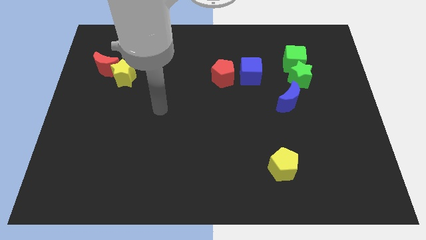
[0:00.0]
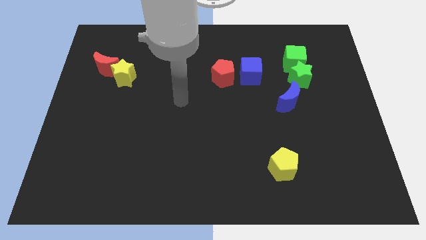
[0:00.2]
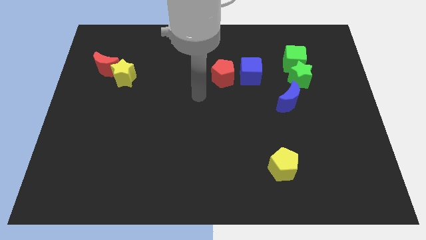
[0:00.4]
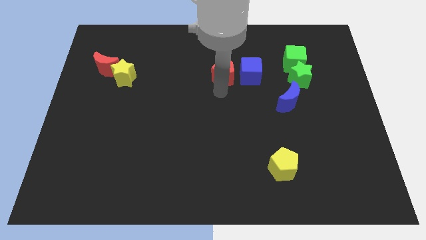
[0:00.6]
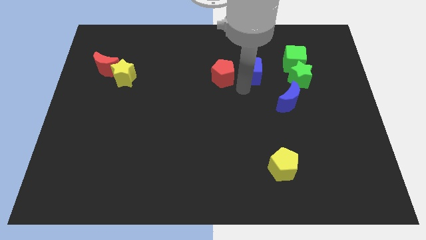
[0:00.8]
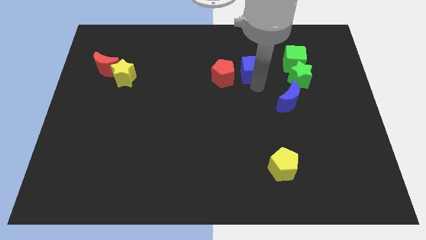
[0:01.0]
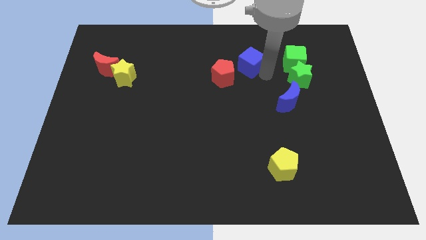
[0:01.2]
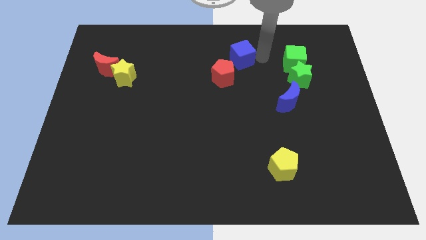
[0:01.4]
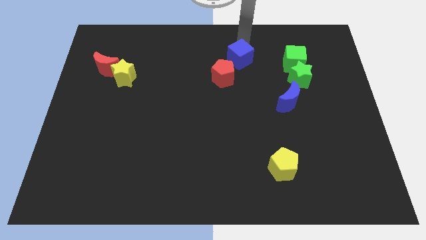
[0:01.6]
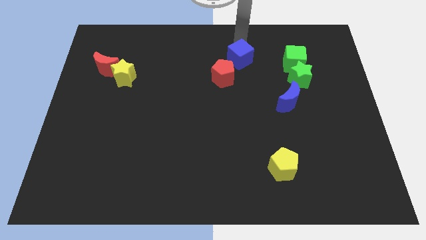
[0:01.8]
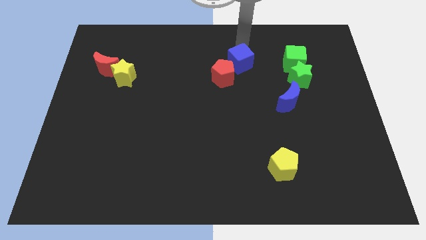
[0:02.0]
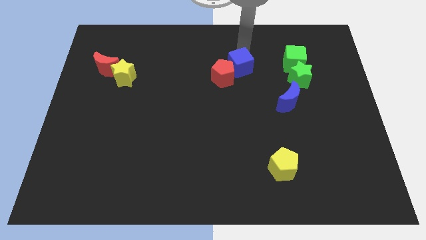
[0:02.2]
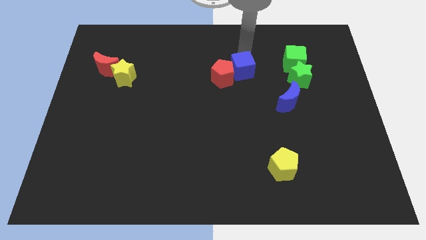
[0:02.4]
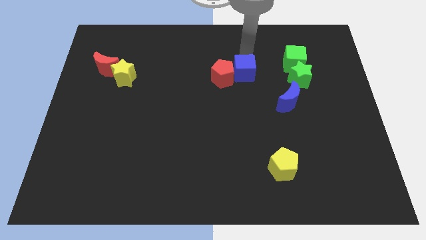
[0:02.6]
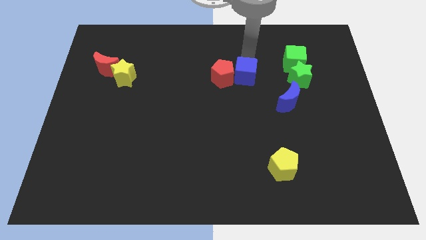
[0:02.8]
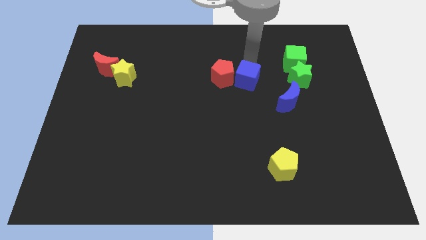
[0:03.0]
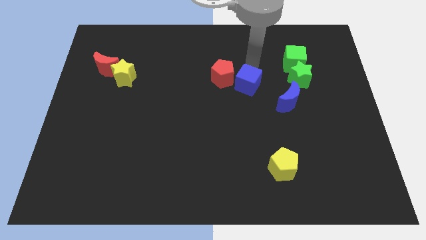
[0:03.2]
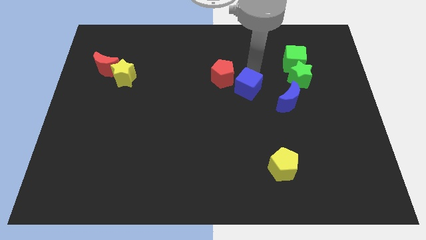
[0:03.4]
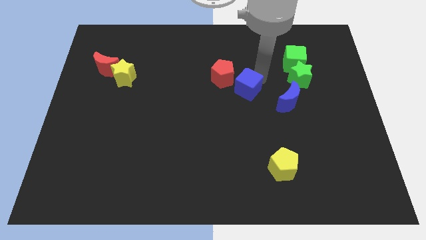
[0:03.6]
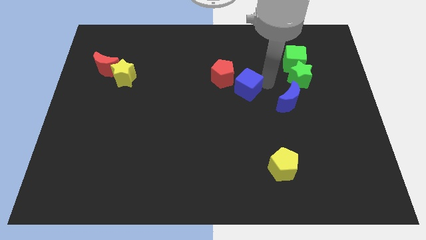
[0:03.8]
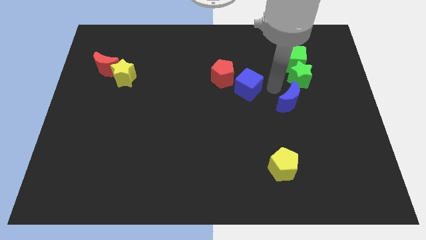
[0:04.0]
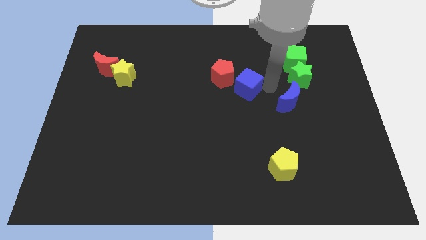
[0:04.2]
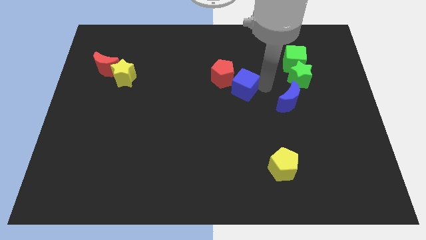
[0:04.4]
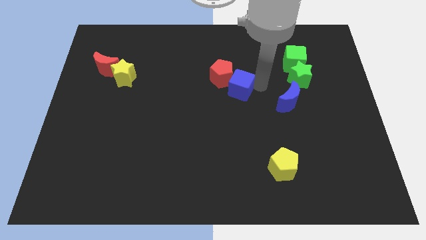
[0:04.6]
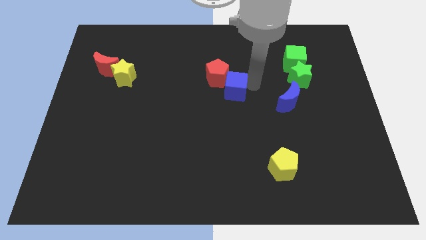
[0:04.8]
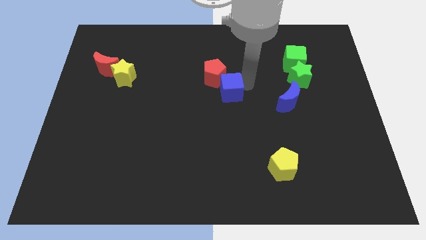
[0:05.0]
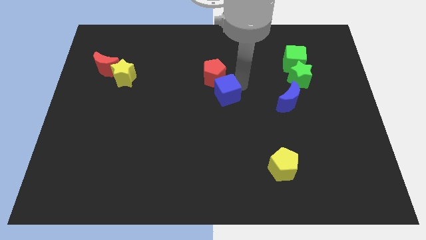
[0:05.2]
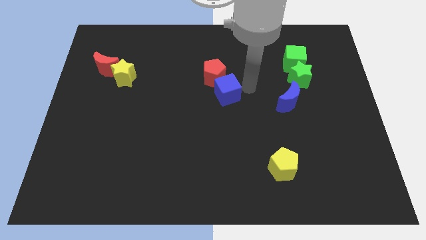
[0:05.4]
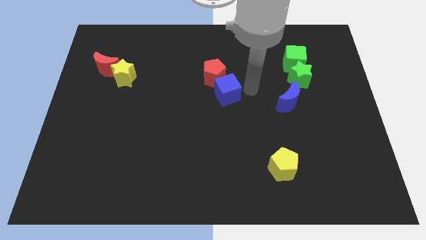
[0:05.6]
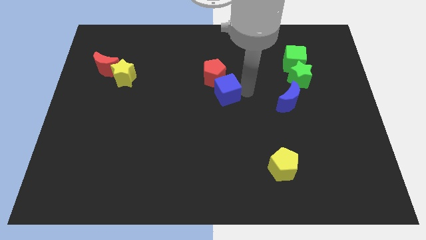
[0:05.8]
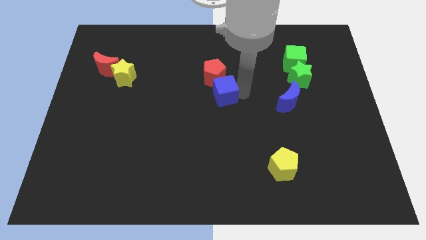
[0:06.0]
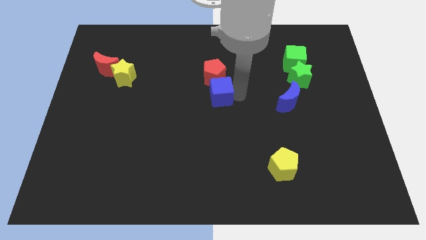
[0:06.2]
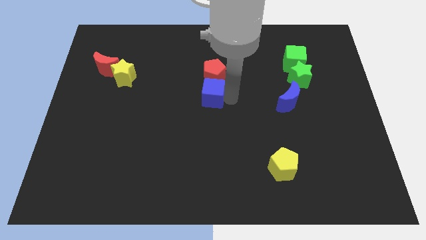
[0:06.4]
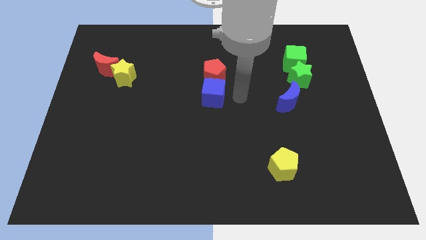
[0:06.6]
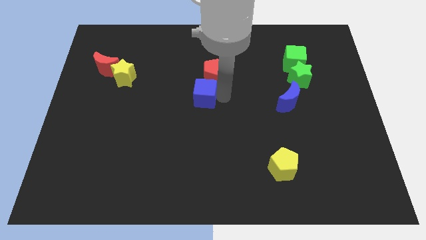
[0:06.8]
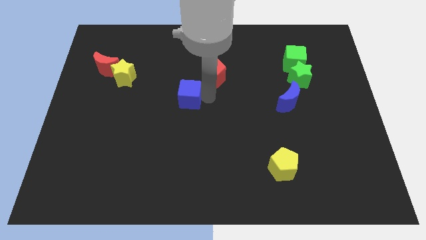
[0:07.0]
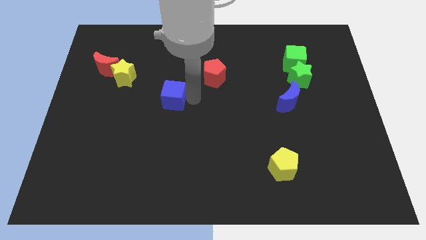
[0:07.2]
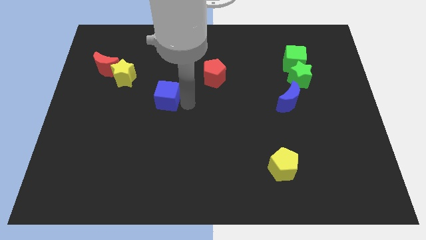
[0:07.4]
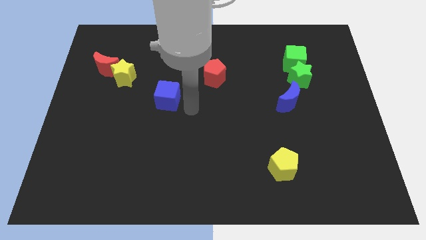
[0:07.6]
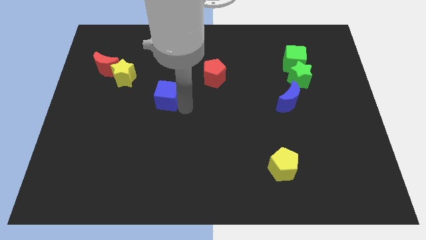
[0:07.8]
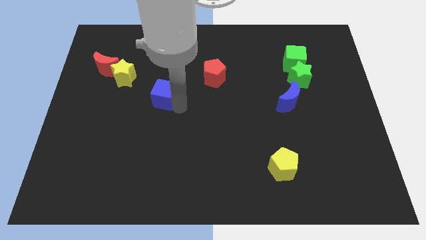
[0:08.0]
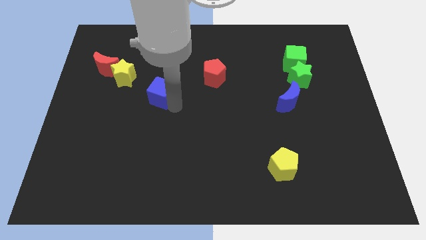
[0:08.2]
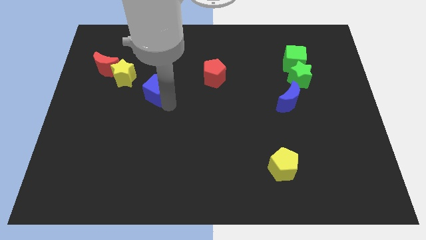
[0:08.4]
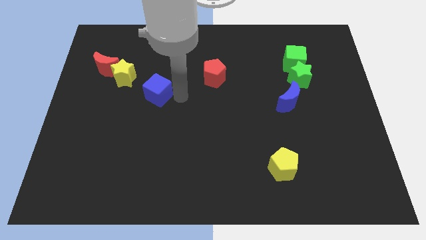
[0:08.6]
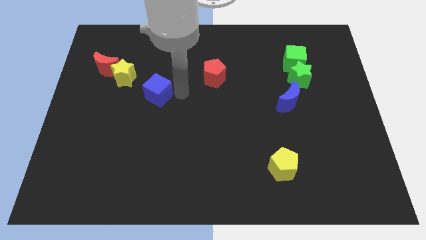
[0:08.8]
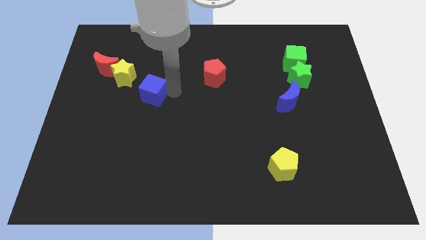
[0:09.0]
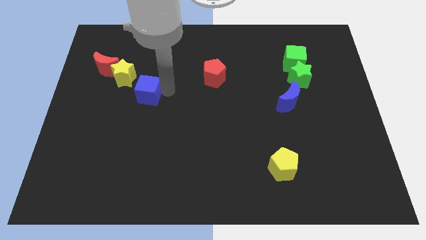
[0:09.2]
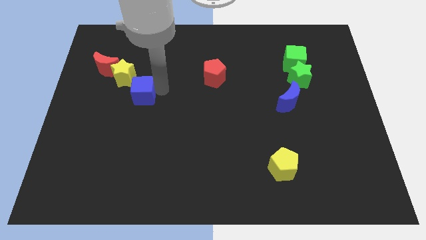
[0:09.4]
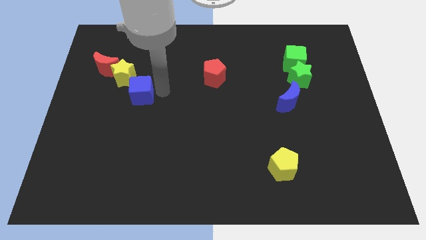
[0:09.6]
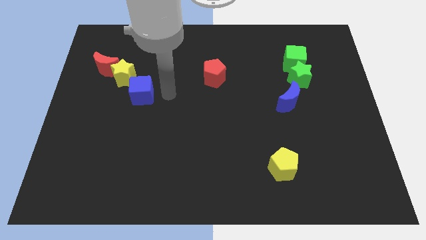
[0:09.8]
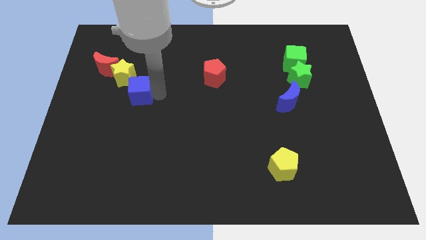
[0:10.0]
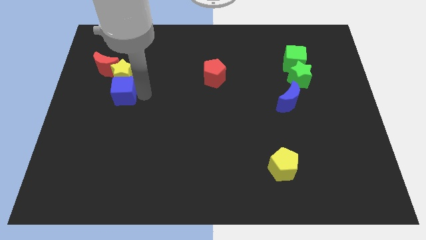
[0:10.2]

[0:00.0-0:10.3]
push the blue cube to the bottom left side of the yellow star

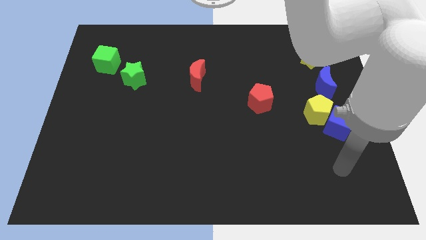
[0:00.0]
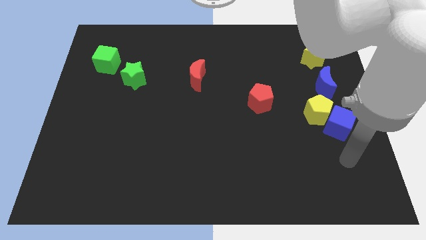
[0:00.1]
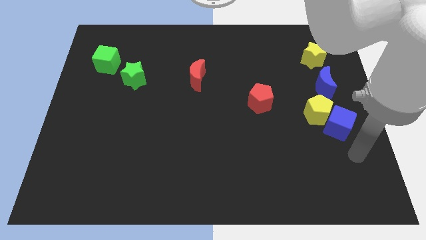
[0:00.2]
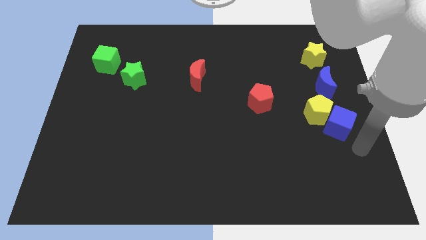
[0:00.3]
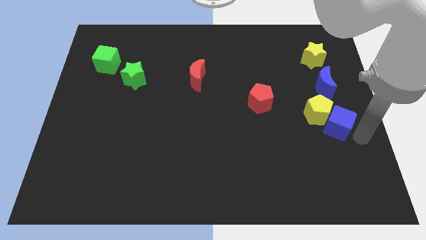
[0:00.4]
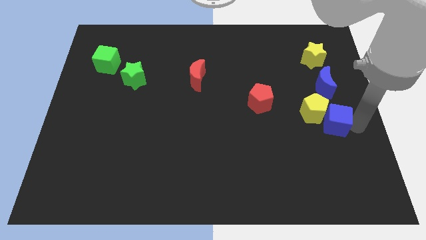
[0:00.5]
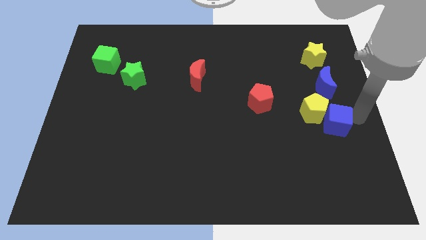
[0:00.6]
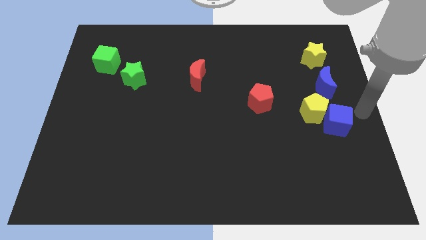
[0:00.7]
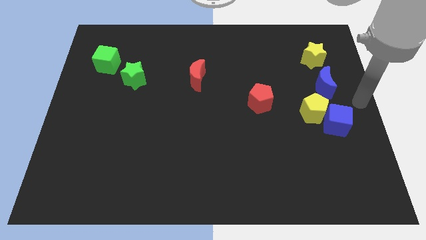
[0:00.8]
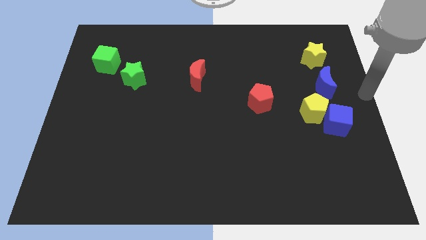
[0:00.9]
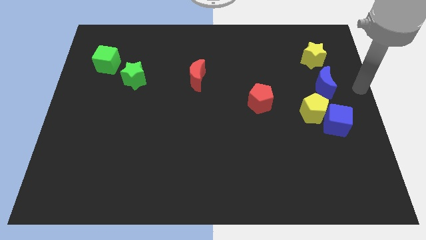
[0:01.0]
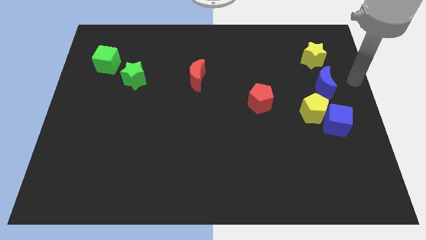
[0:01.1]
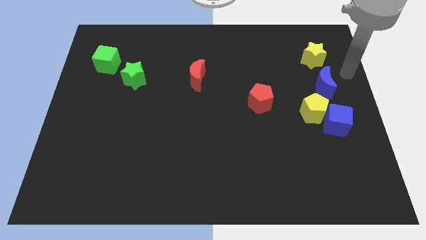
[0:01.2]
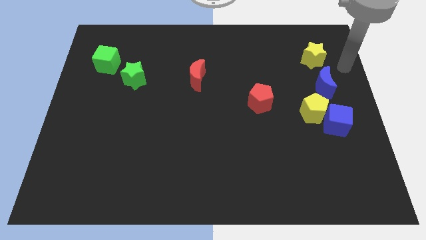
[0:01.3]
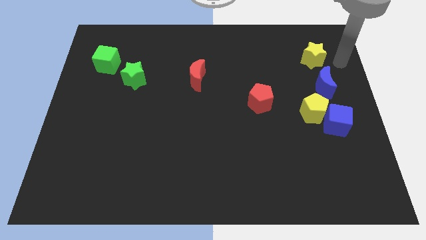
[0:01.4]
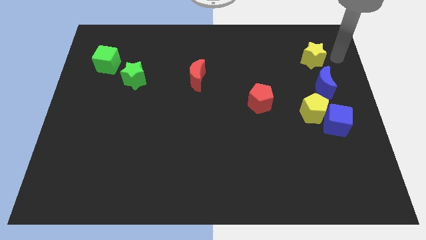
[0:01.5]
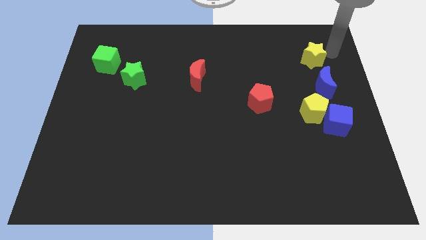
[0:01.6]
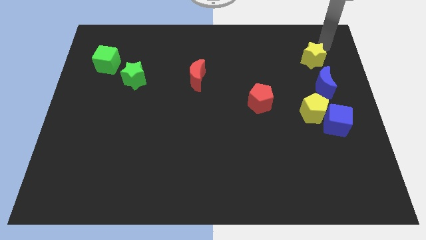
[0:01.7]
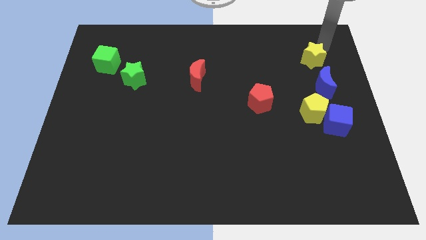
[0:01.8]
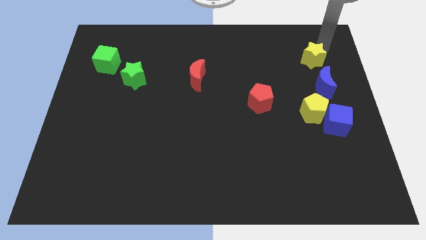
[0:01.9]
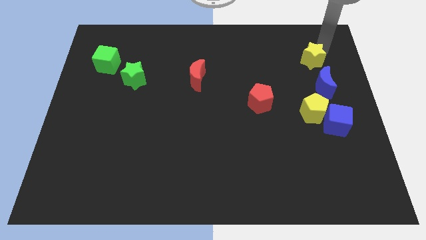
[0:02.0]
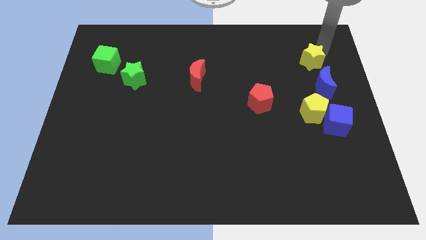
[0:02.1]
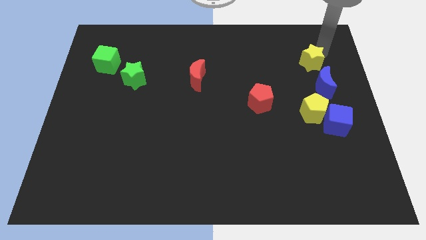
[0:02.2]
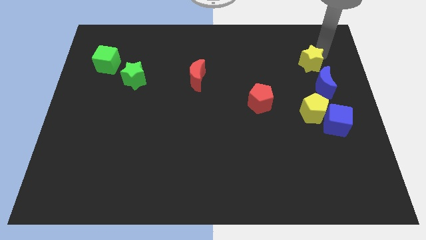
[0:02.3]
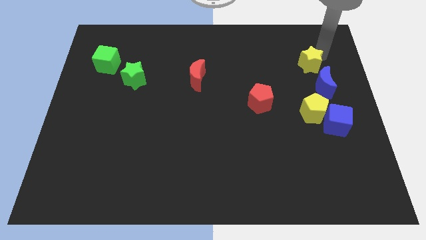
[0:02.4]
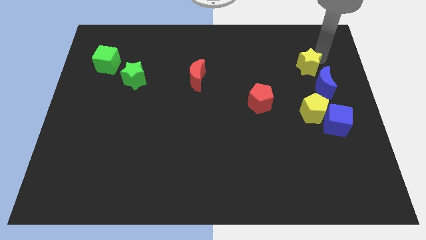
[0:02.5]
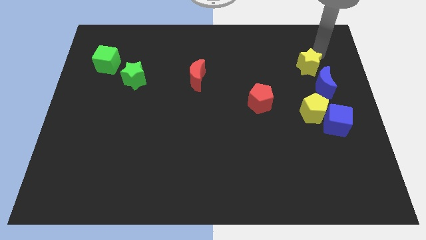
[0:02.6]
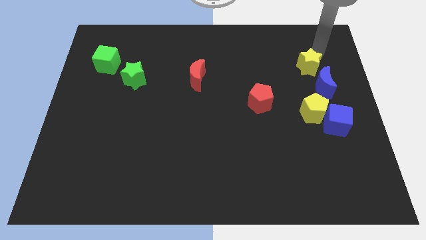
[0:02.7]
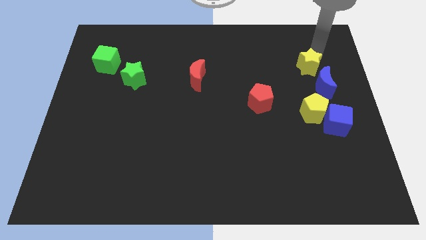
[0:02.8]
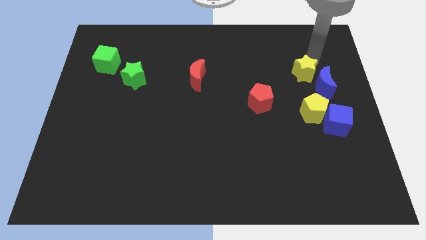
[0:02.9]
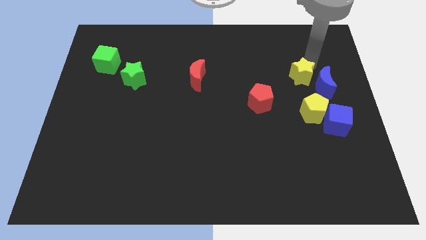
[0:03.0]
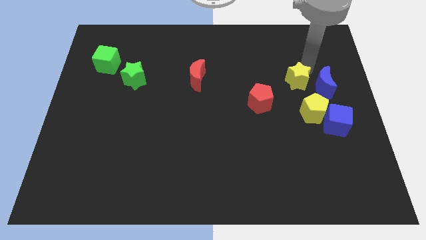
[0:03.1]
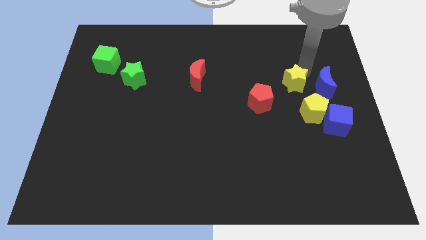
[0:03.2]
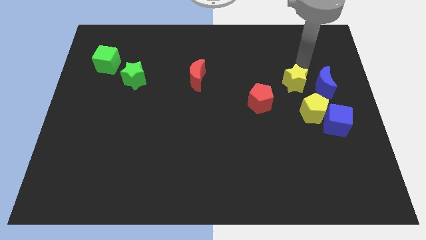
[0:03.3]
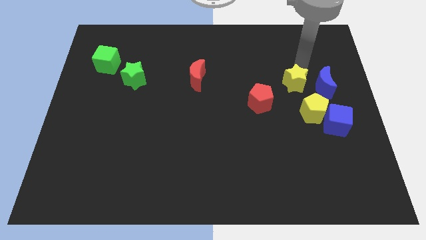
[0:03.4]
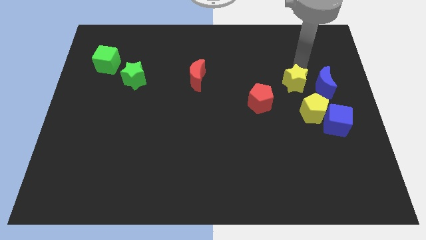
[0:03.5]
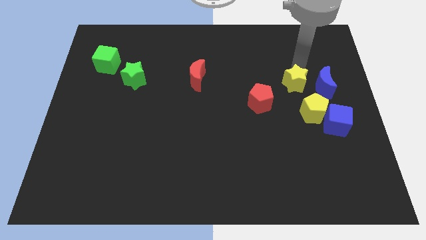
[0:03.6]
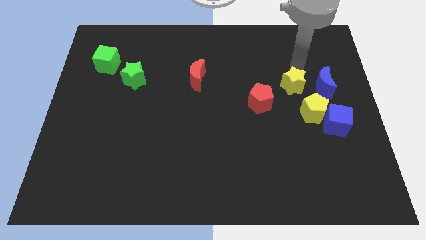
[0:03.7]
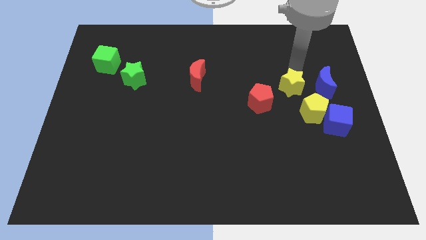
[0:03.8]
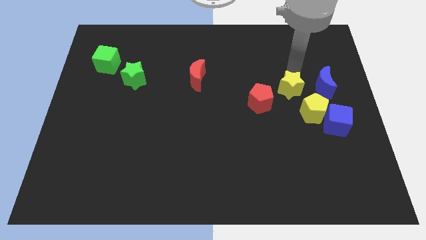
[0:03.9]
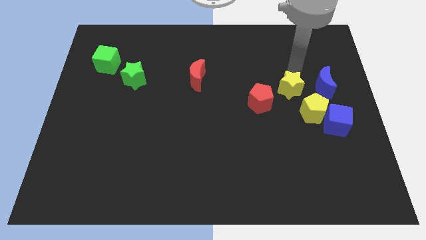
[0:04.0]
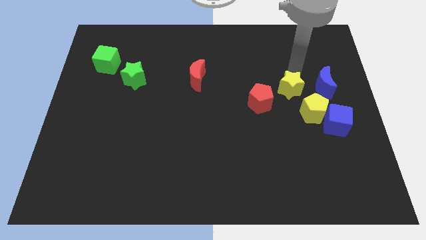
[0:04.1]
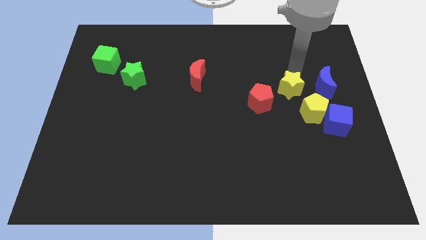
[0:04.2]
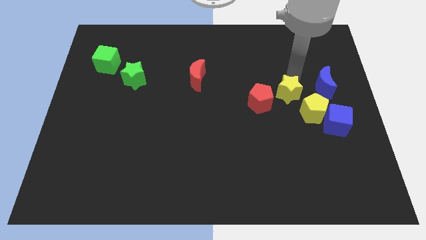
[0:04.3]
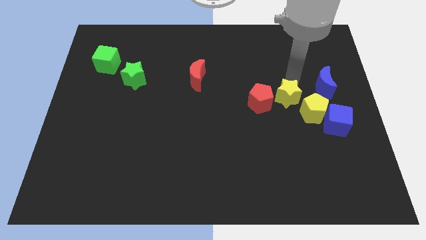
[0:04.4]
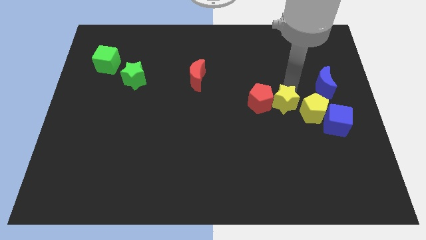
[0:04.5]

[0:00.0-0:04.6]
push the yellow star to the bottom right side of the red pentagon
